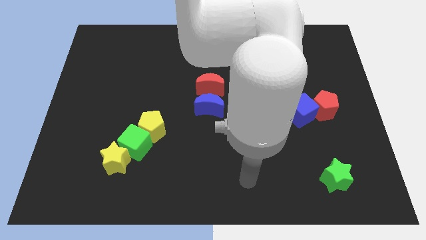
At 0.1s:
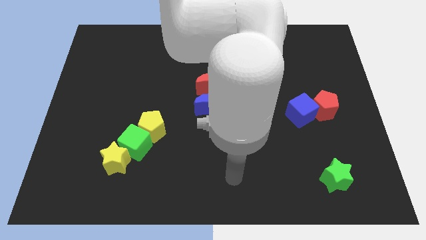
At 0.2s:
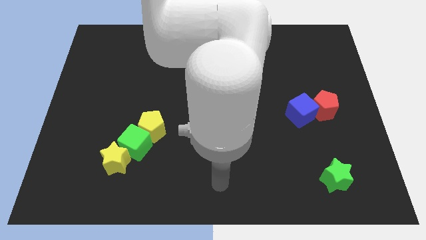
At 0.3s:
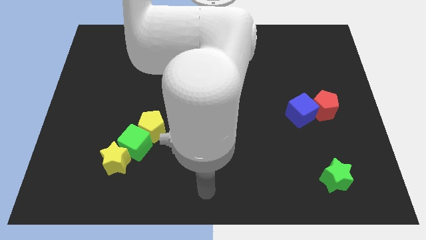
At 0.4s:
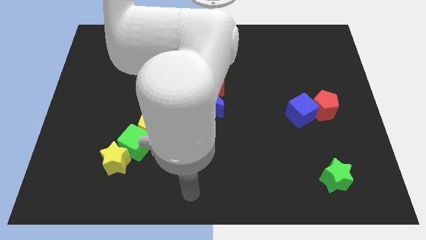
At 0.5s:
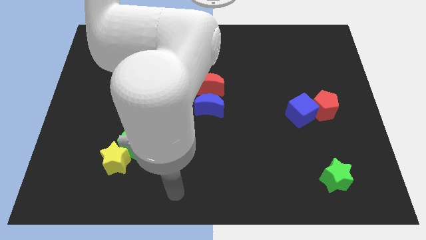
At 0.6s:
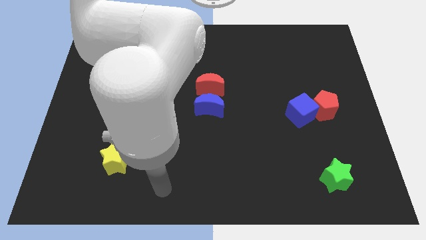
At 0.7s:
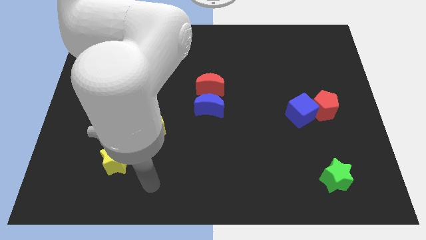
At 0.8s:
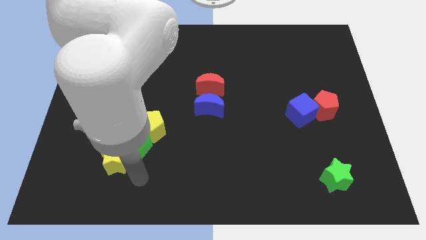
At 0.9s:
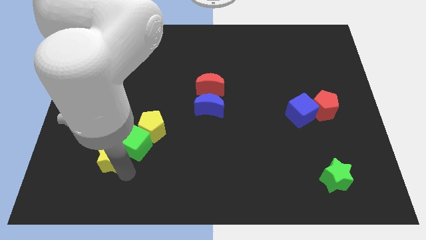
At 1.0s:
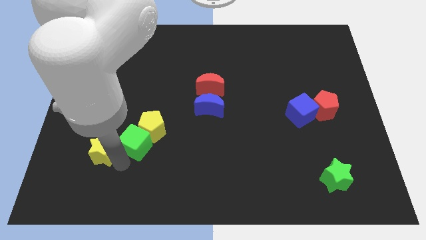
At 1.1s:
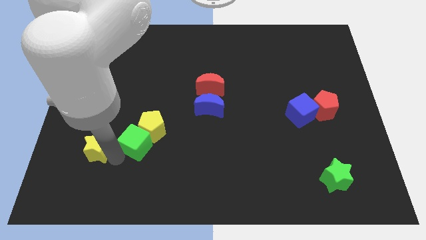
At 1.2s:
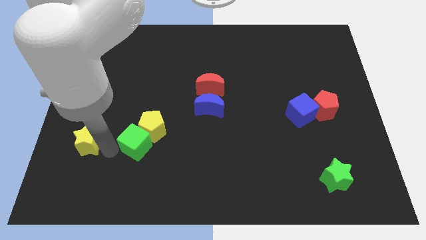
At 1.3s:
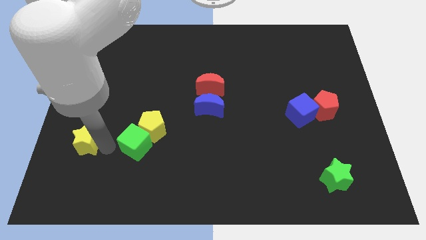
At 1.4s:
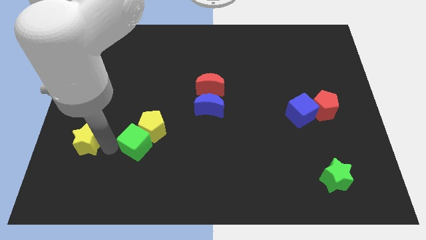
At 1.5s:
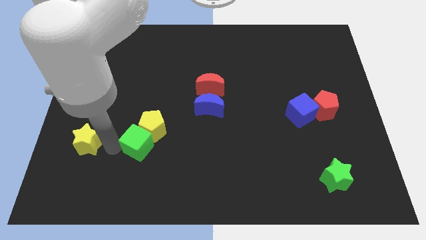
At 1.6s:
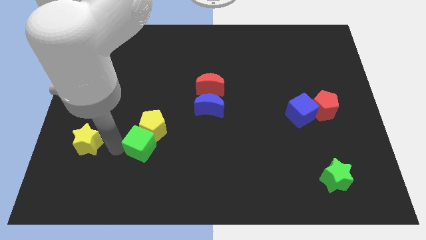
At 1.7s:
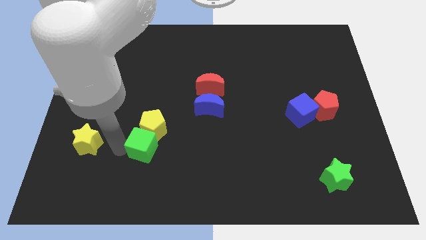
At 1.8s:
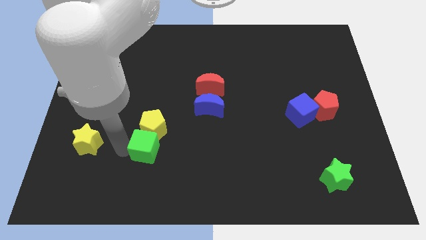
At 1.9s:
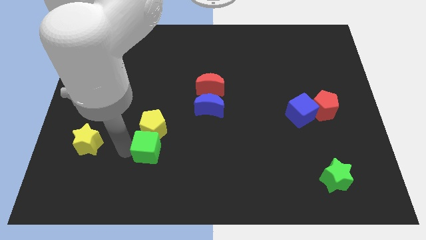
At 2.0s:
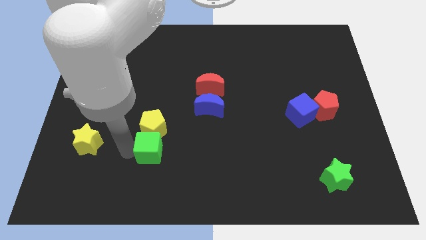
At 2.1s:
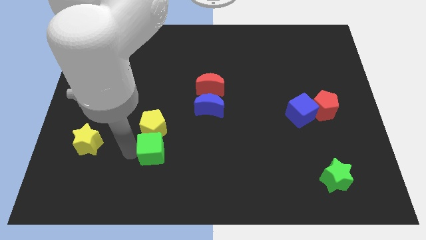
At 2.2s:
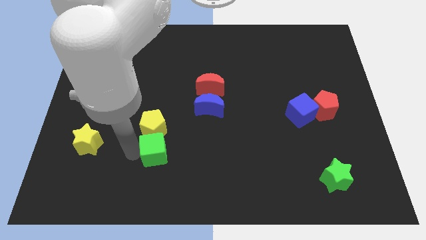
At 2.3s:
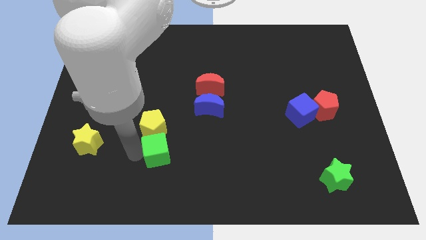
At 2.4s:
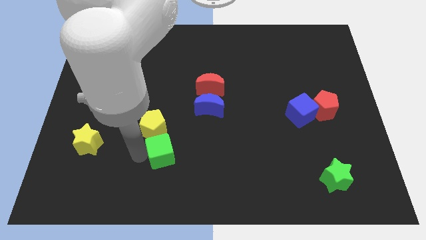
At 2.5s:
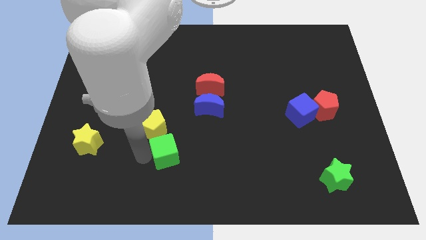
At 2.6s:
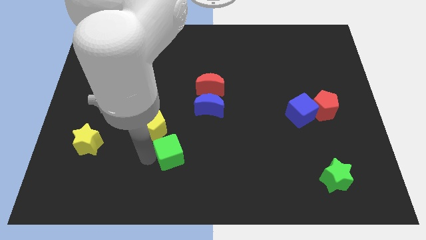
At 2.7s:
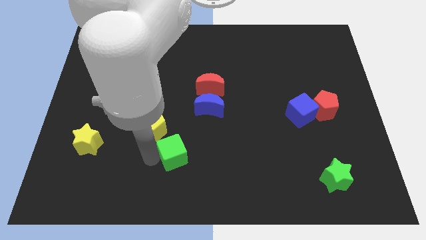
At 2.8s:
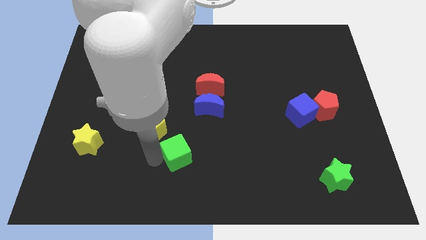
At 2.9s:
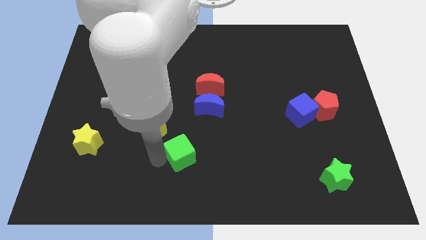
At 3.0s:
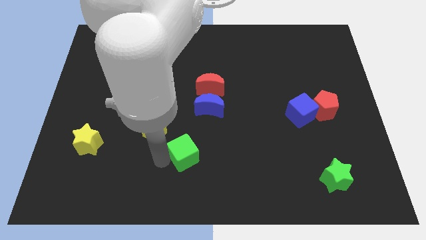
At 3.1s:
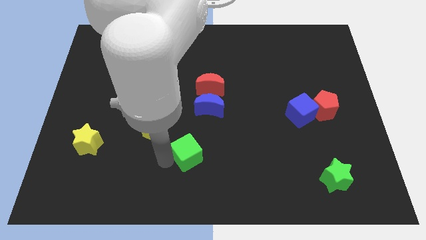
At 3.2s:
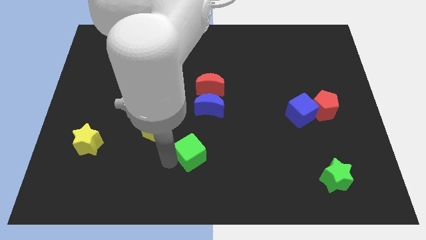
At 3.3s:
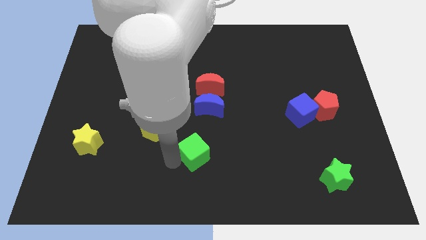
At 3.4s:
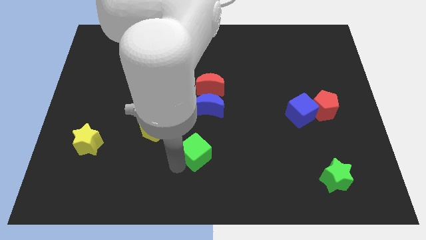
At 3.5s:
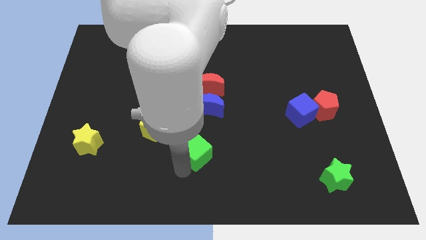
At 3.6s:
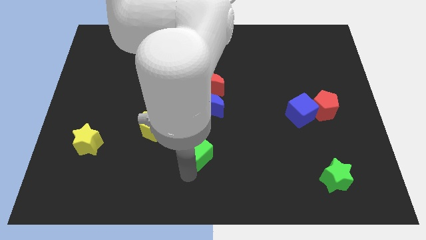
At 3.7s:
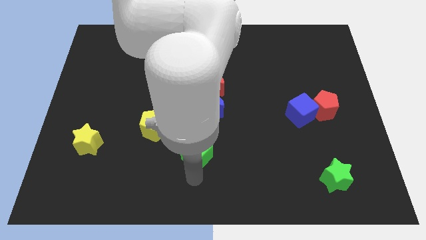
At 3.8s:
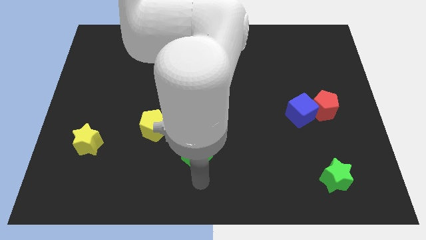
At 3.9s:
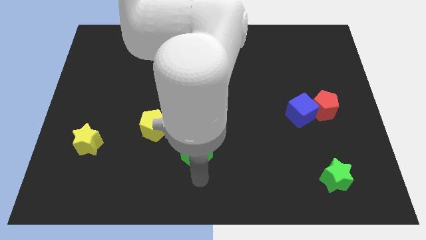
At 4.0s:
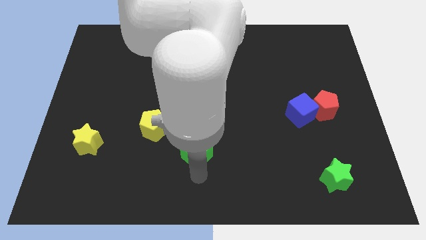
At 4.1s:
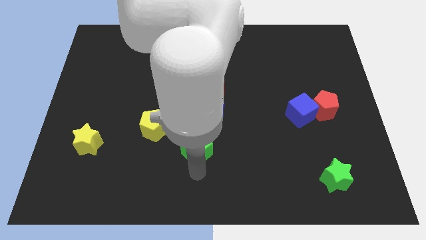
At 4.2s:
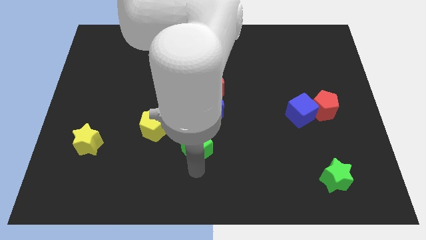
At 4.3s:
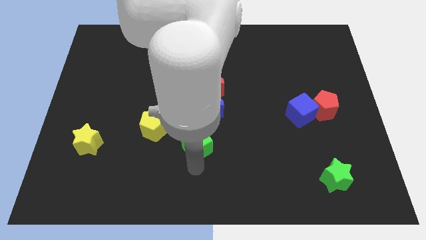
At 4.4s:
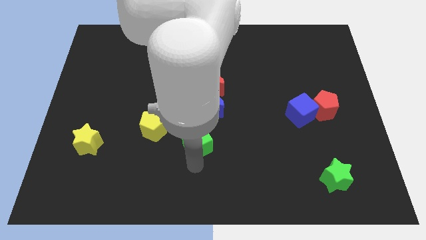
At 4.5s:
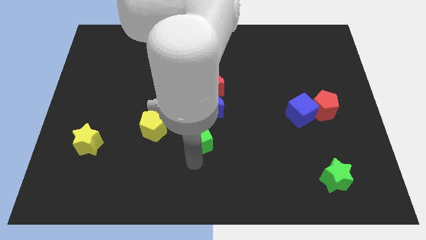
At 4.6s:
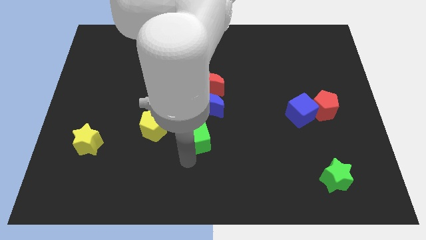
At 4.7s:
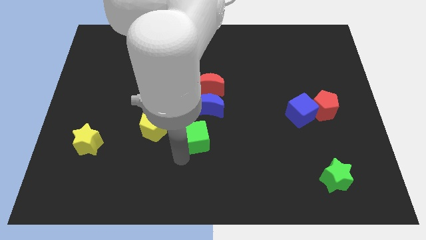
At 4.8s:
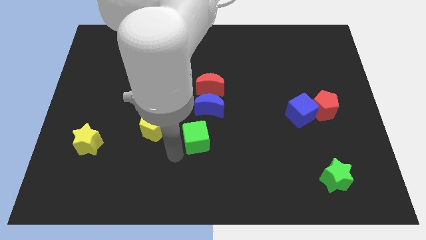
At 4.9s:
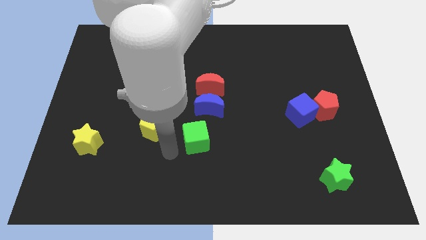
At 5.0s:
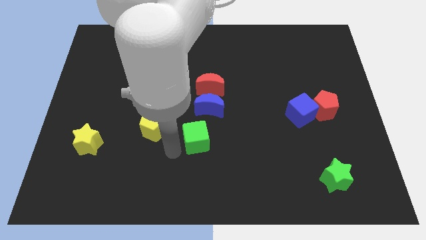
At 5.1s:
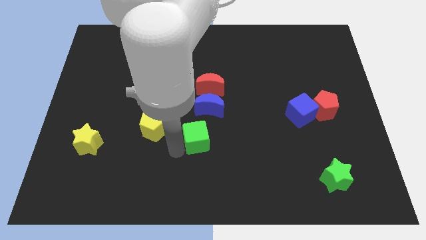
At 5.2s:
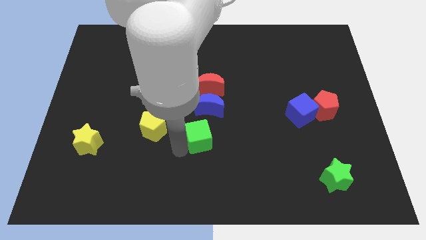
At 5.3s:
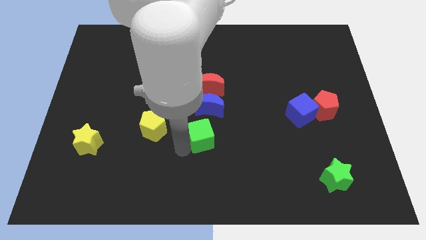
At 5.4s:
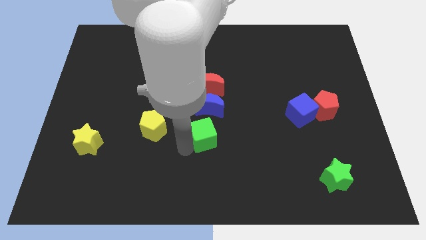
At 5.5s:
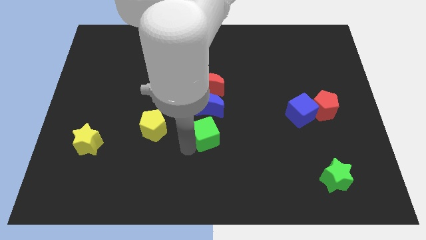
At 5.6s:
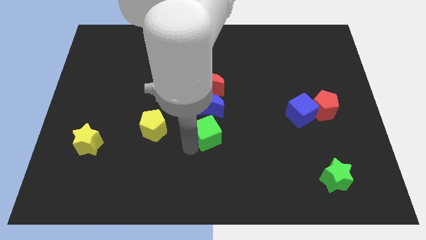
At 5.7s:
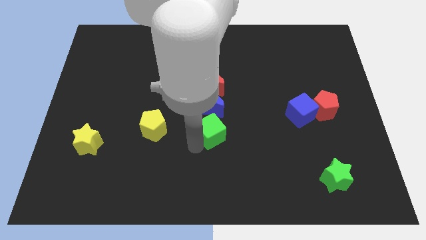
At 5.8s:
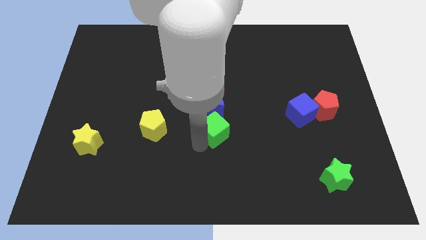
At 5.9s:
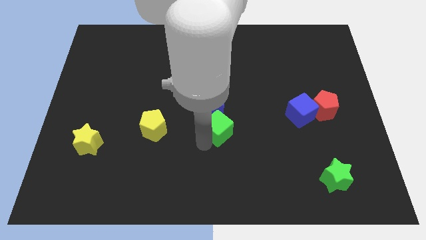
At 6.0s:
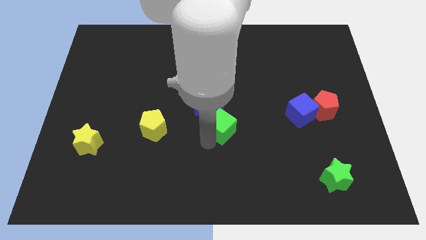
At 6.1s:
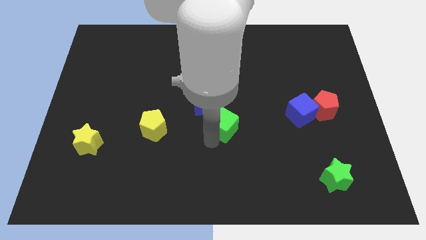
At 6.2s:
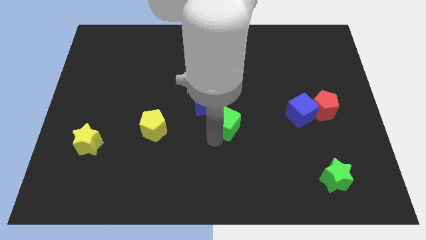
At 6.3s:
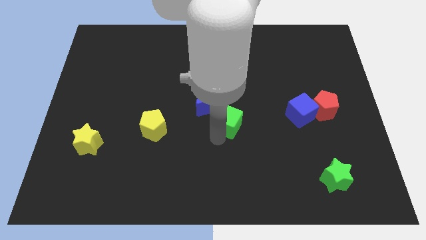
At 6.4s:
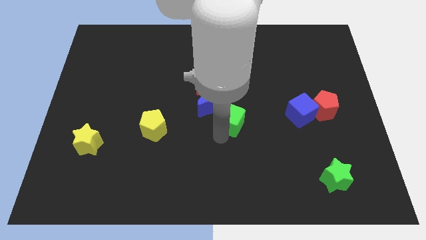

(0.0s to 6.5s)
put the green cube to the bottom right of the red moon
